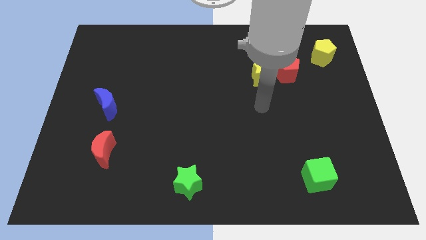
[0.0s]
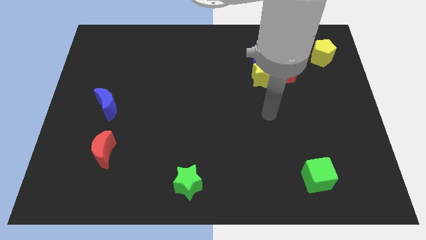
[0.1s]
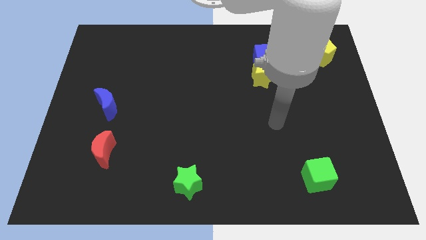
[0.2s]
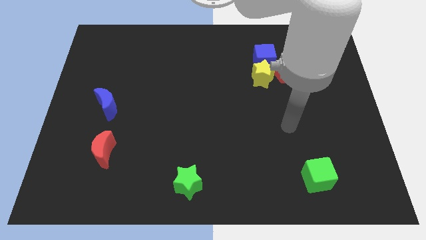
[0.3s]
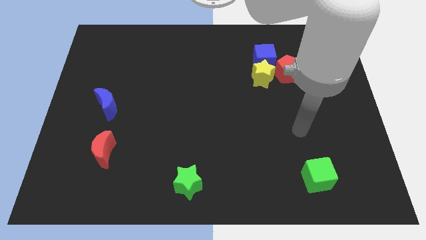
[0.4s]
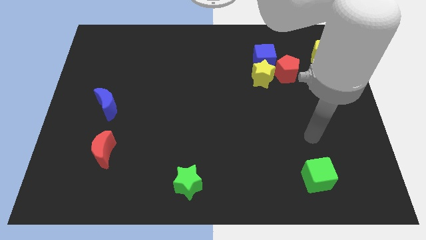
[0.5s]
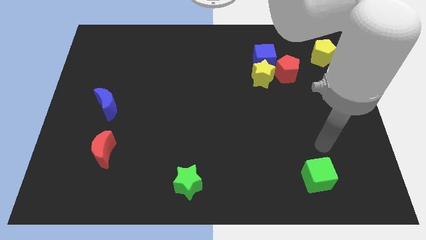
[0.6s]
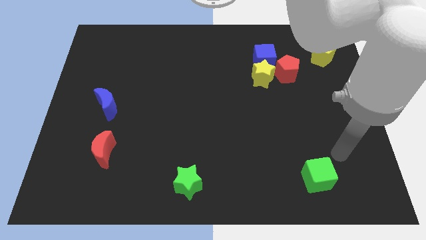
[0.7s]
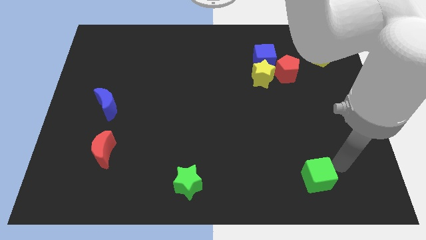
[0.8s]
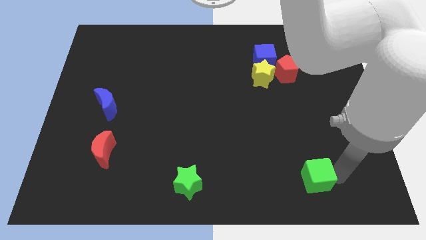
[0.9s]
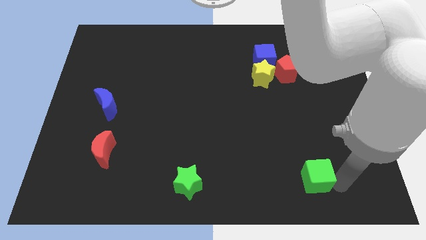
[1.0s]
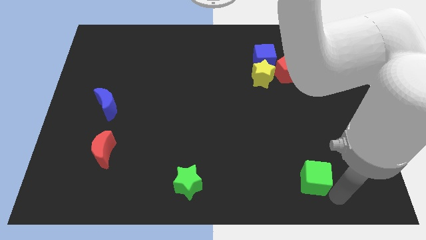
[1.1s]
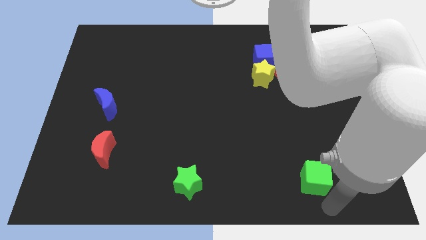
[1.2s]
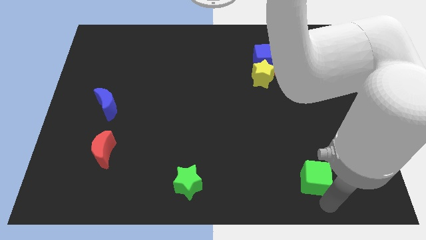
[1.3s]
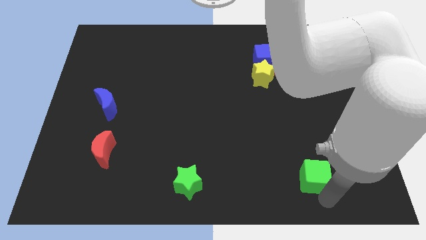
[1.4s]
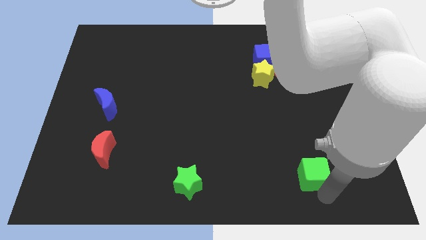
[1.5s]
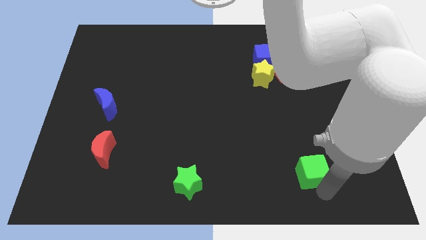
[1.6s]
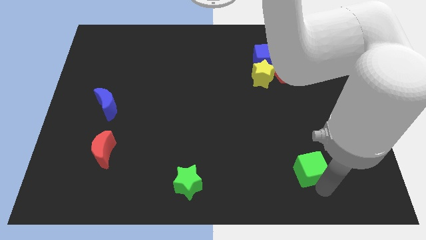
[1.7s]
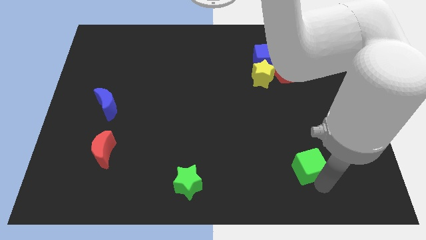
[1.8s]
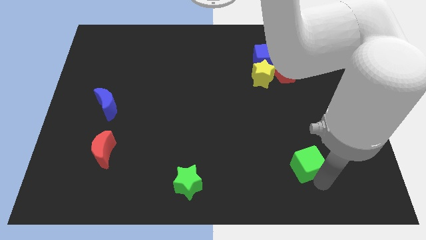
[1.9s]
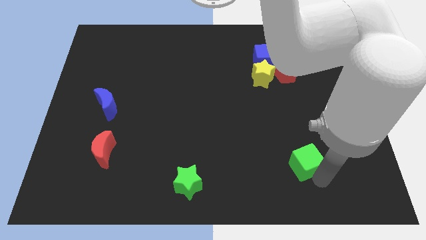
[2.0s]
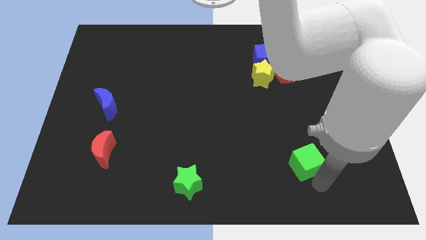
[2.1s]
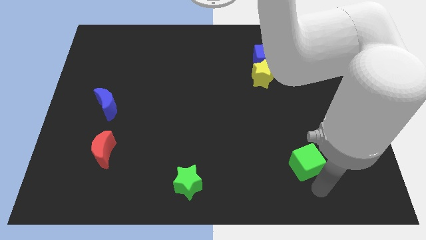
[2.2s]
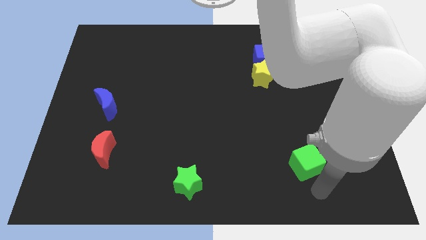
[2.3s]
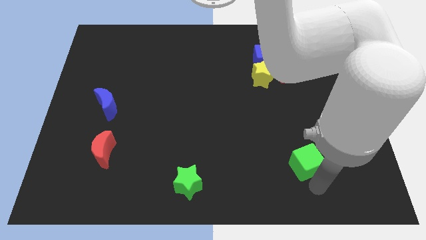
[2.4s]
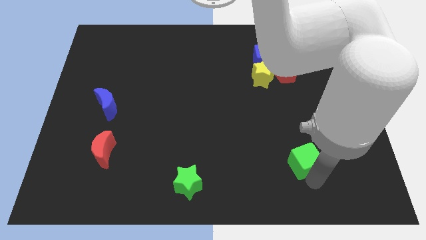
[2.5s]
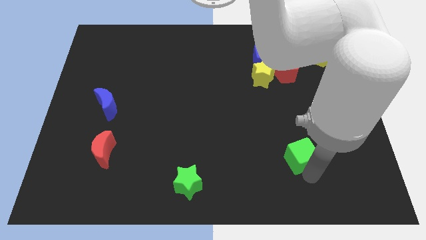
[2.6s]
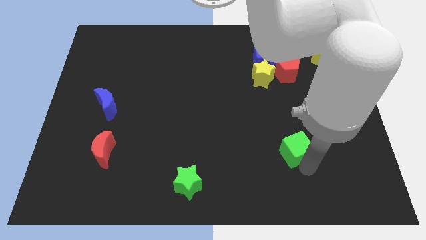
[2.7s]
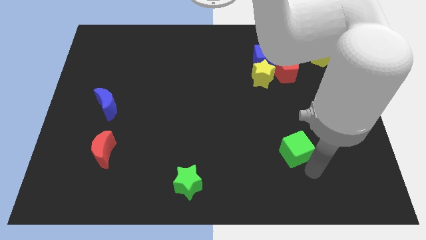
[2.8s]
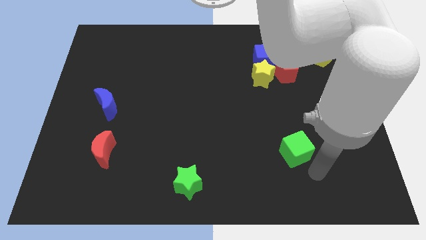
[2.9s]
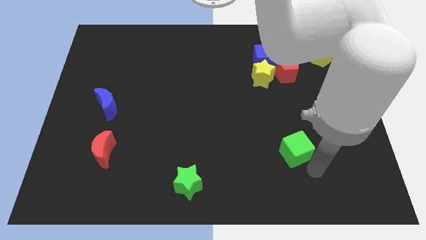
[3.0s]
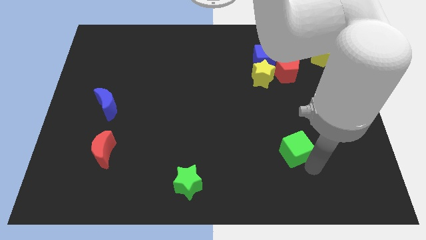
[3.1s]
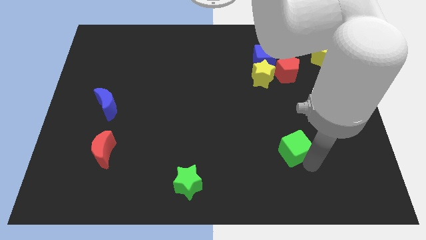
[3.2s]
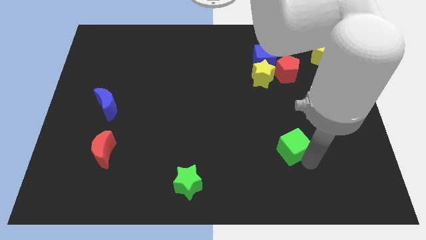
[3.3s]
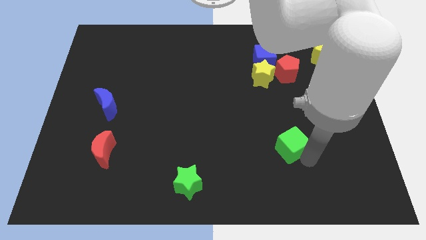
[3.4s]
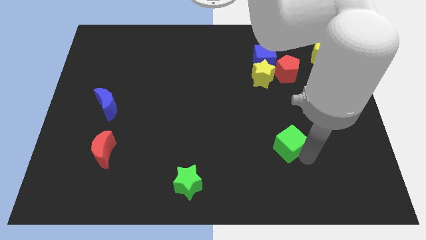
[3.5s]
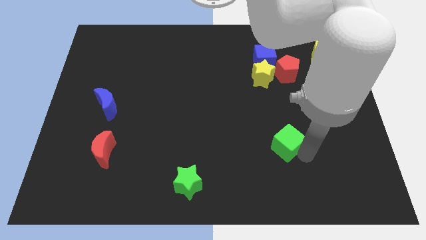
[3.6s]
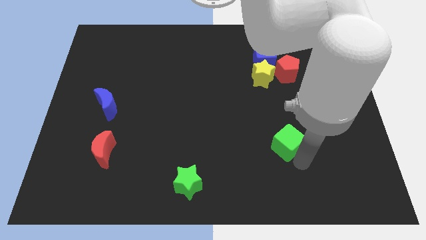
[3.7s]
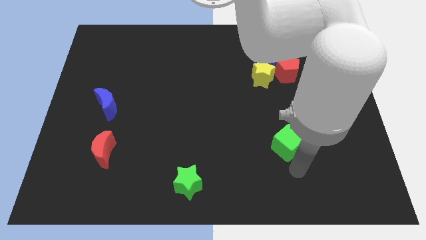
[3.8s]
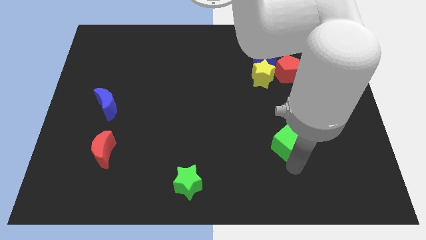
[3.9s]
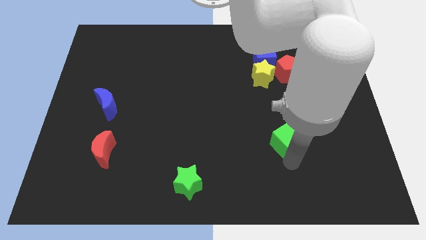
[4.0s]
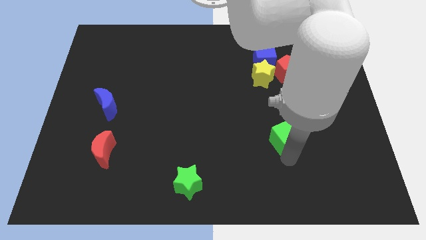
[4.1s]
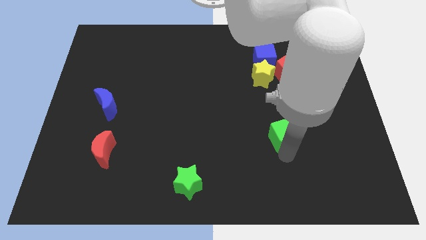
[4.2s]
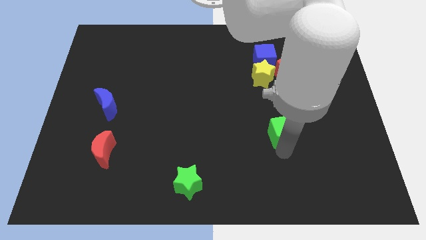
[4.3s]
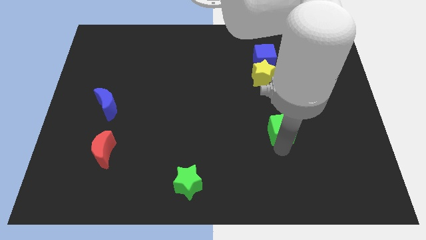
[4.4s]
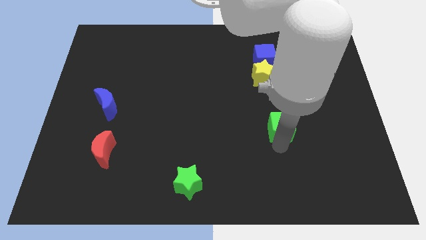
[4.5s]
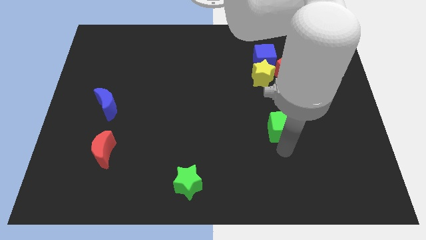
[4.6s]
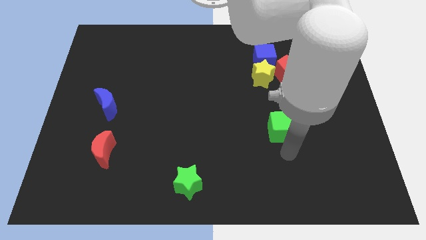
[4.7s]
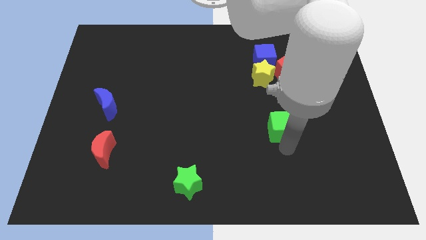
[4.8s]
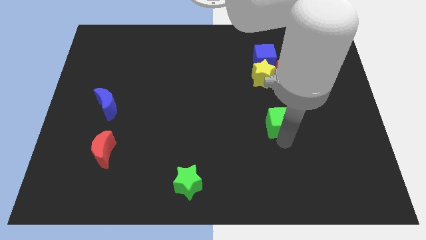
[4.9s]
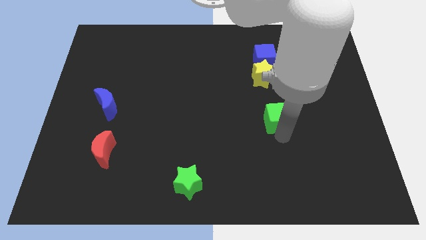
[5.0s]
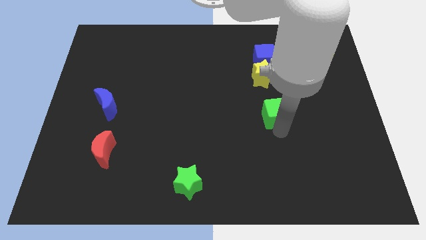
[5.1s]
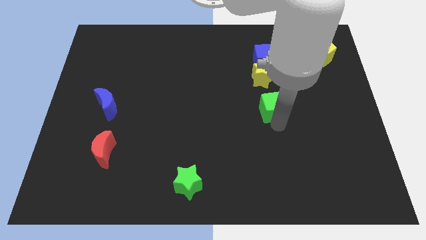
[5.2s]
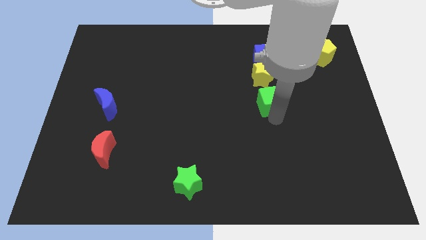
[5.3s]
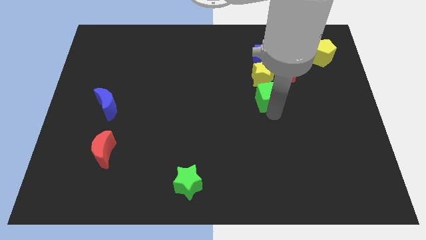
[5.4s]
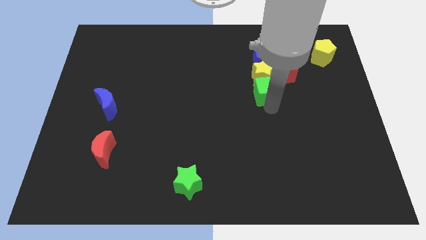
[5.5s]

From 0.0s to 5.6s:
move the green cube to the yellow star

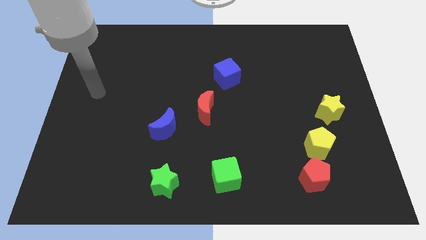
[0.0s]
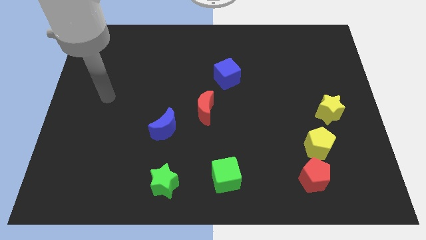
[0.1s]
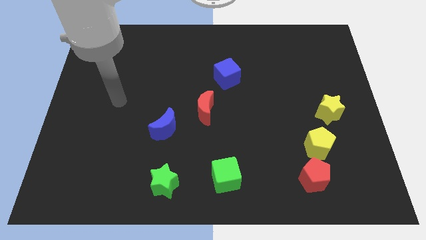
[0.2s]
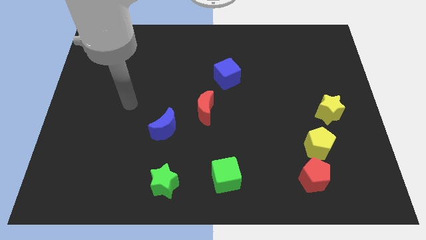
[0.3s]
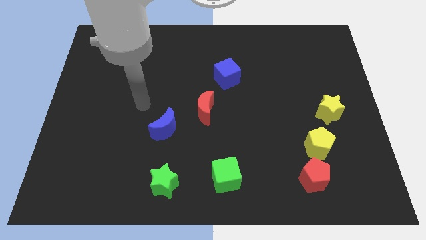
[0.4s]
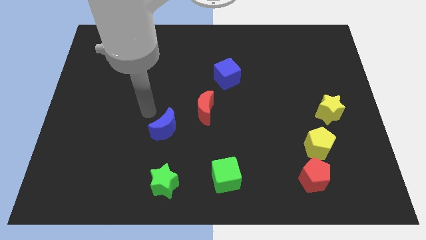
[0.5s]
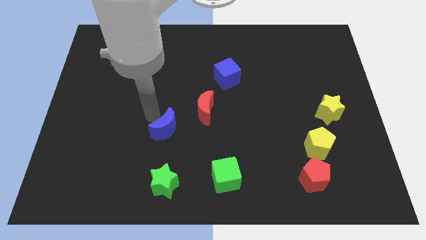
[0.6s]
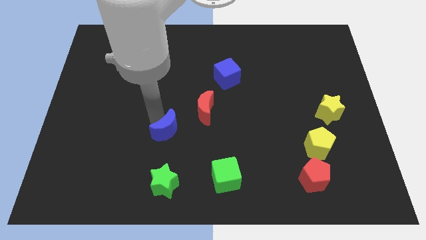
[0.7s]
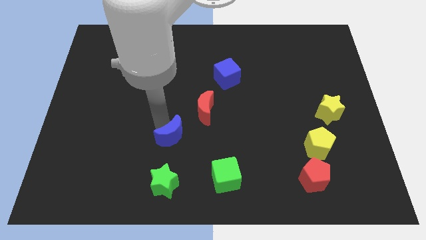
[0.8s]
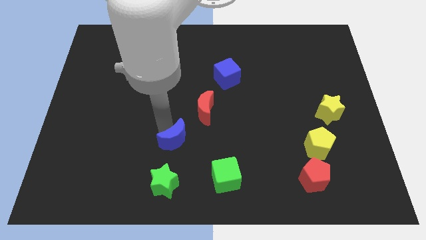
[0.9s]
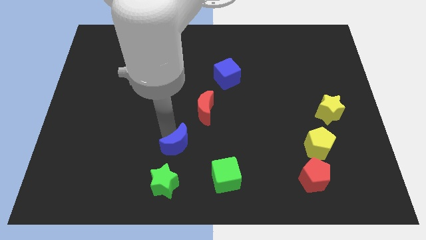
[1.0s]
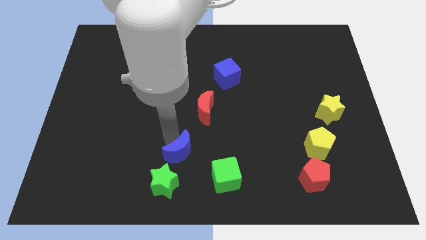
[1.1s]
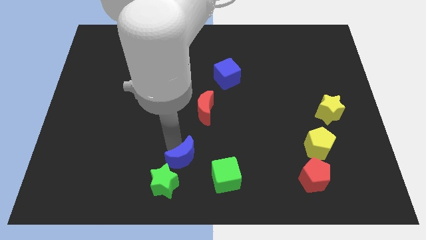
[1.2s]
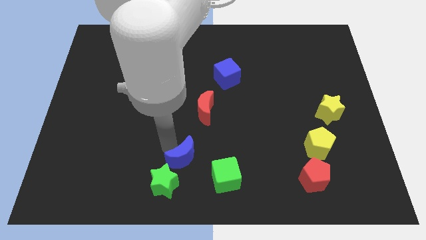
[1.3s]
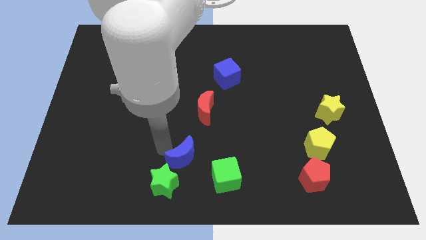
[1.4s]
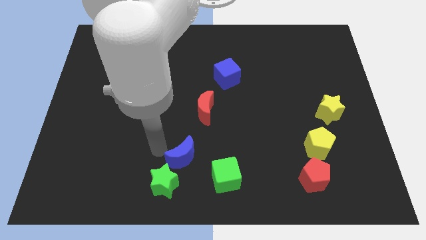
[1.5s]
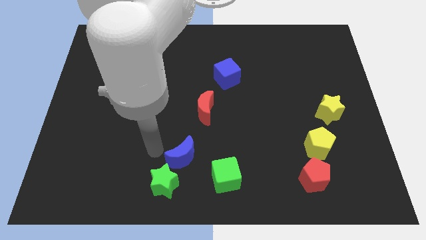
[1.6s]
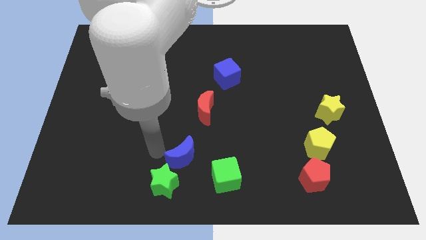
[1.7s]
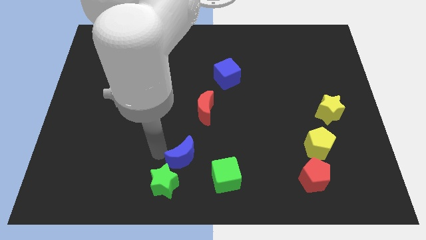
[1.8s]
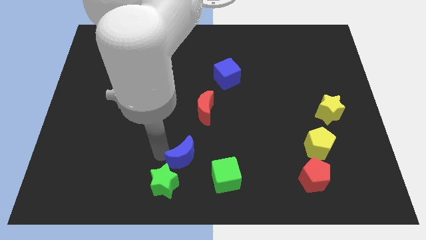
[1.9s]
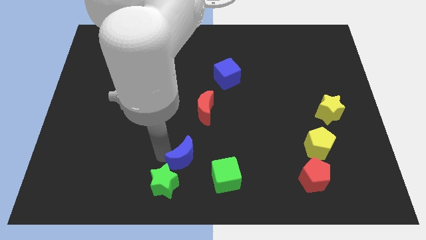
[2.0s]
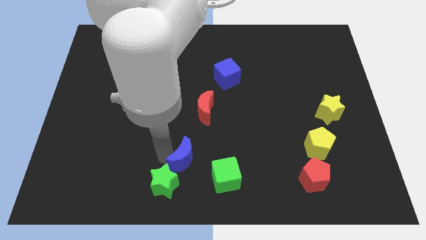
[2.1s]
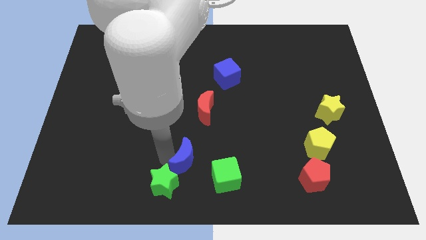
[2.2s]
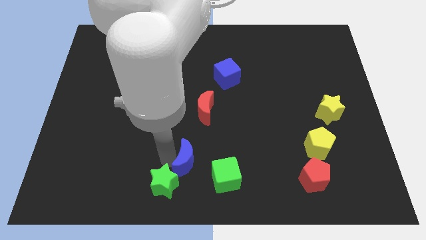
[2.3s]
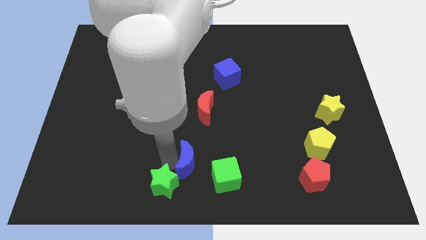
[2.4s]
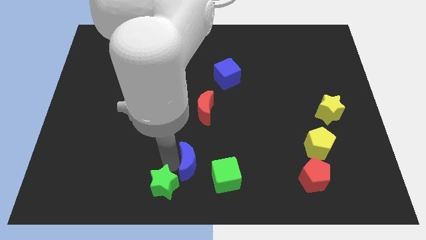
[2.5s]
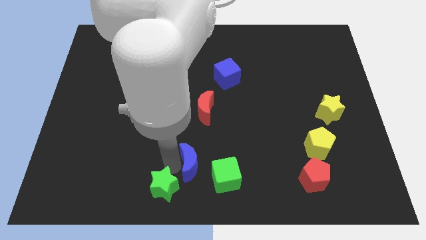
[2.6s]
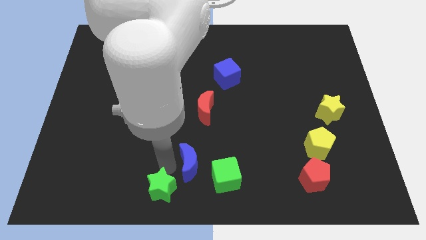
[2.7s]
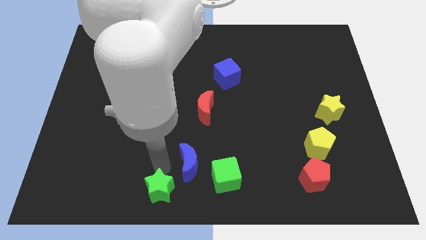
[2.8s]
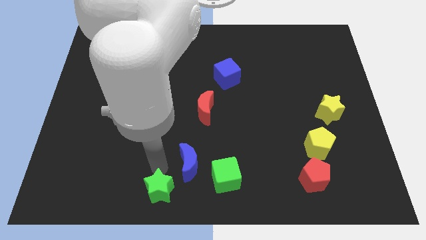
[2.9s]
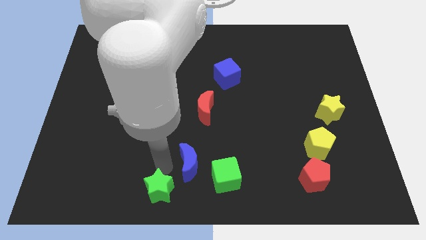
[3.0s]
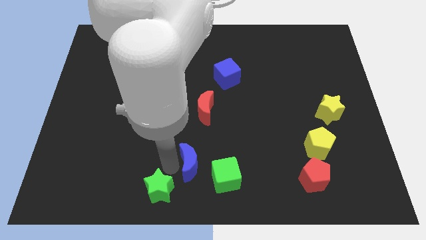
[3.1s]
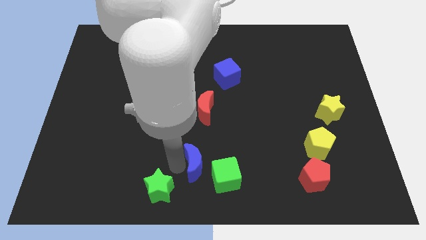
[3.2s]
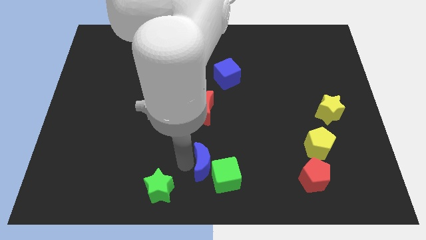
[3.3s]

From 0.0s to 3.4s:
put the blue moon close to the green cube
